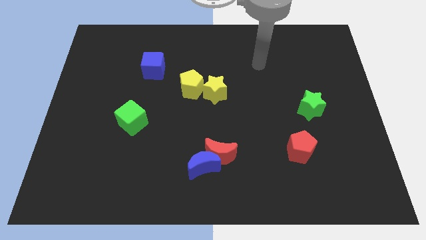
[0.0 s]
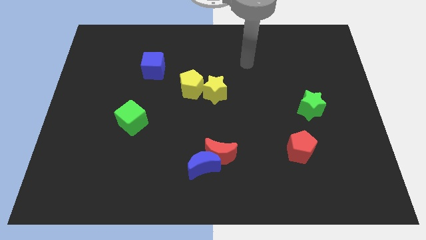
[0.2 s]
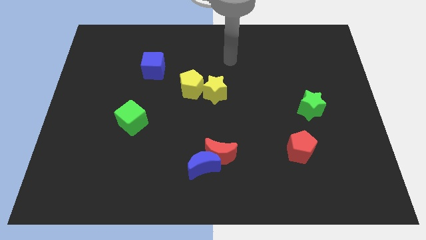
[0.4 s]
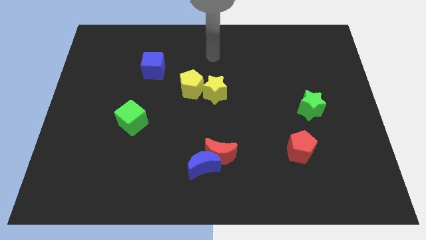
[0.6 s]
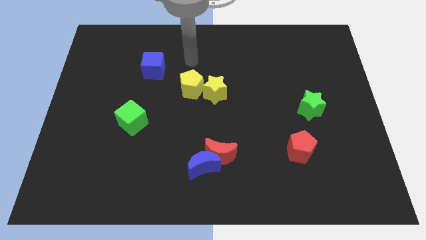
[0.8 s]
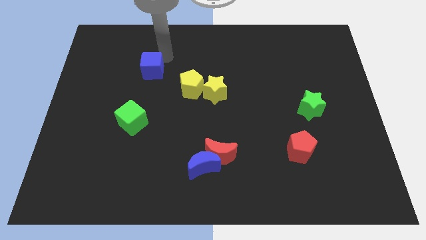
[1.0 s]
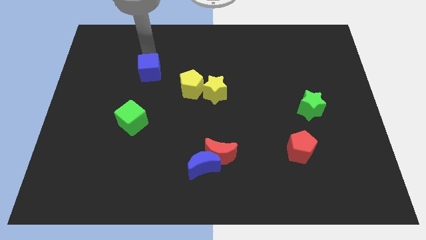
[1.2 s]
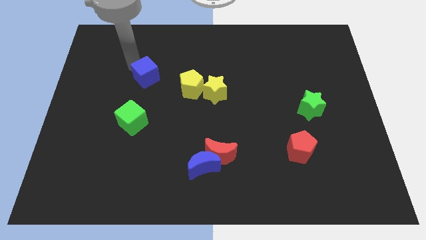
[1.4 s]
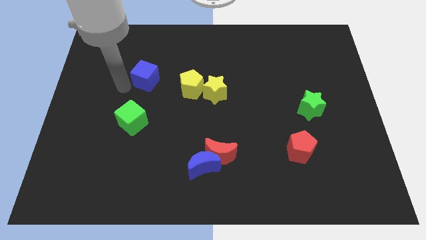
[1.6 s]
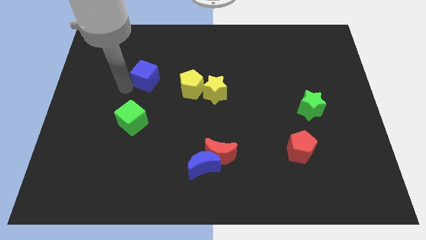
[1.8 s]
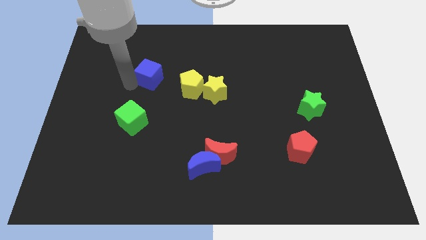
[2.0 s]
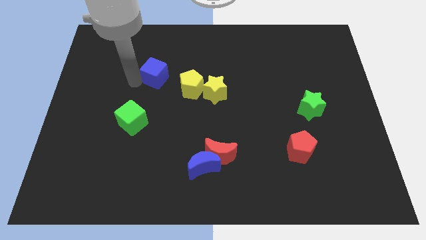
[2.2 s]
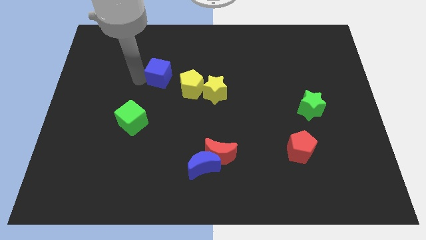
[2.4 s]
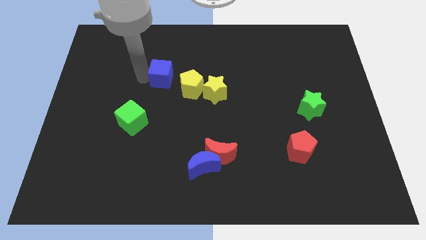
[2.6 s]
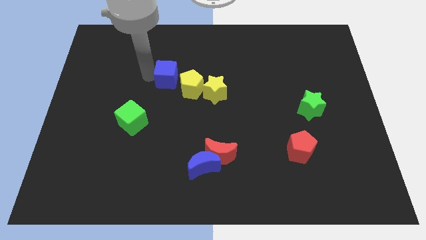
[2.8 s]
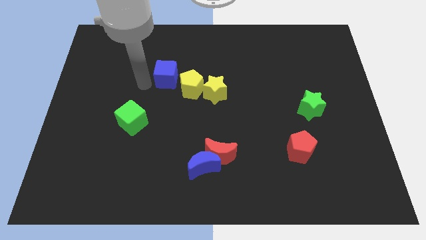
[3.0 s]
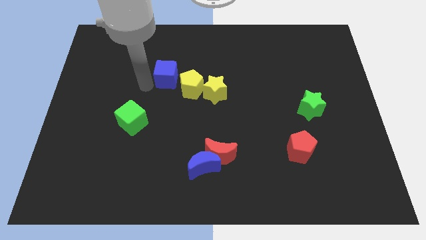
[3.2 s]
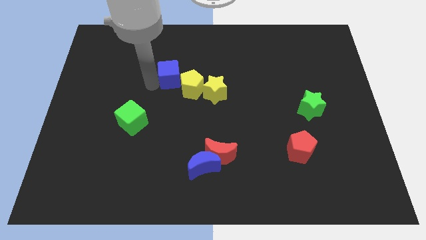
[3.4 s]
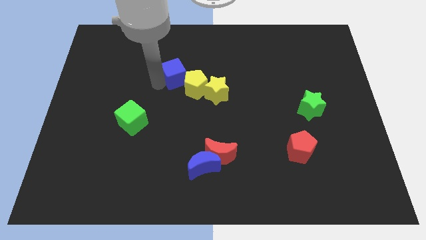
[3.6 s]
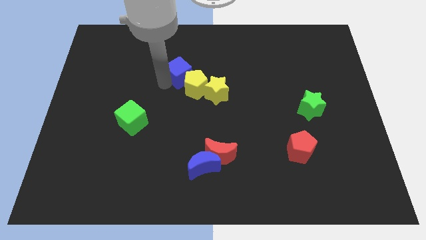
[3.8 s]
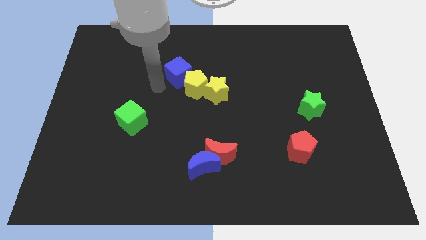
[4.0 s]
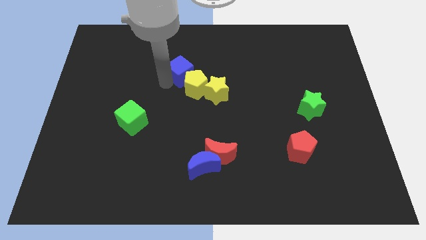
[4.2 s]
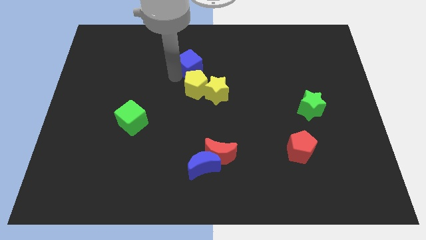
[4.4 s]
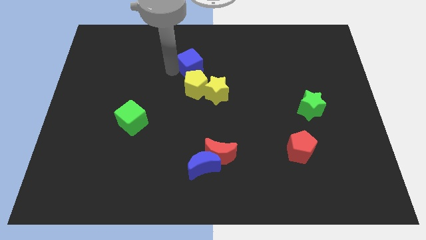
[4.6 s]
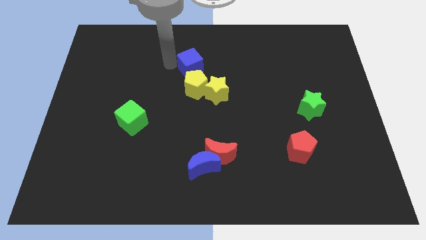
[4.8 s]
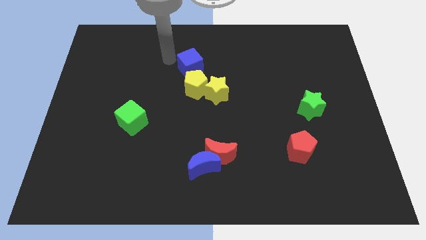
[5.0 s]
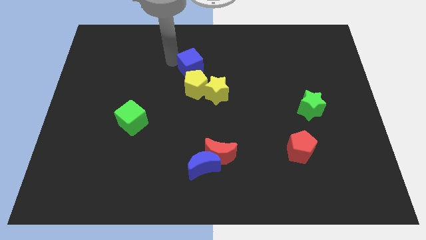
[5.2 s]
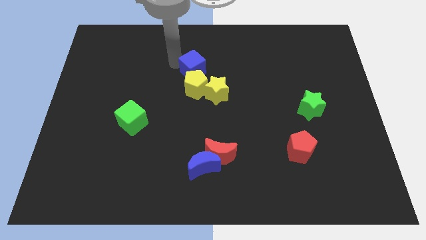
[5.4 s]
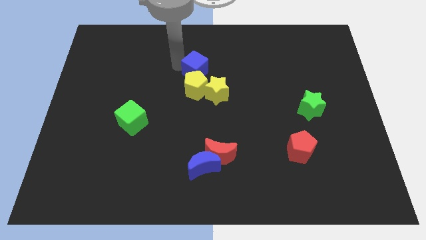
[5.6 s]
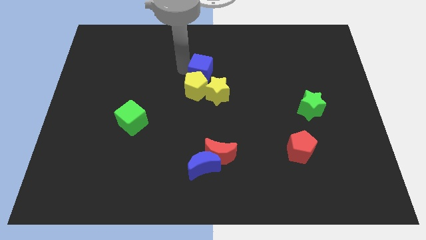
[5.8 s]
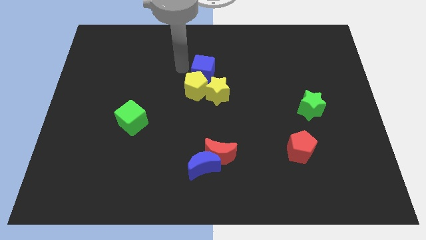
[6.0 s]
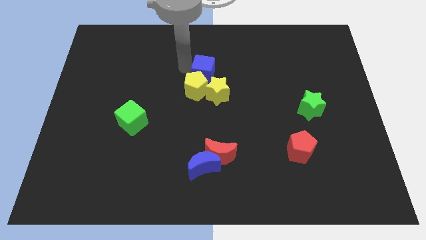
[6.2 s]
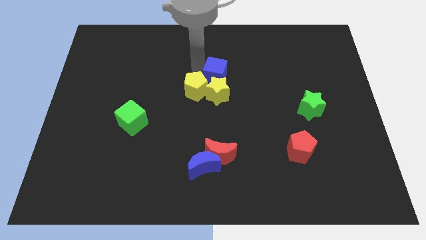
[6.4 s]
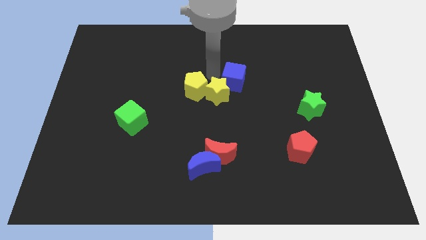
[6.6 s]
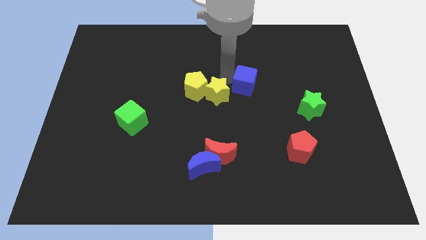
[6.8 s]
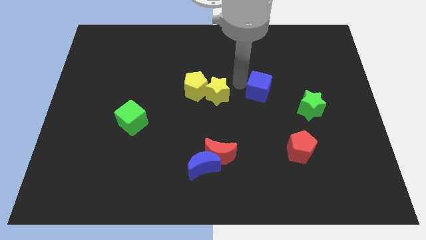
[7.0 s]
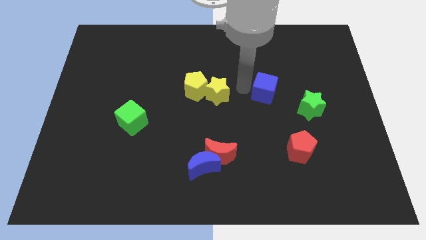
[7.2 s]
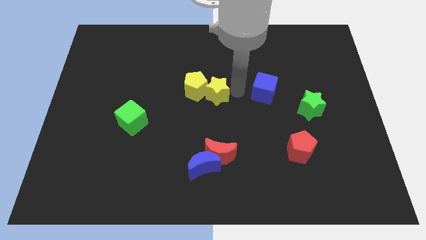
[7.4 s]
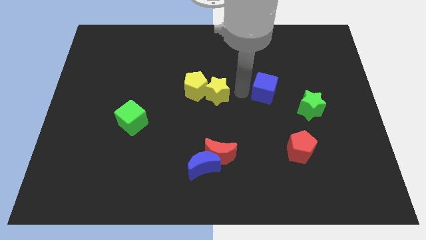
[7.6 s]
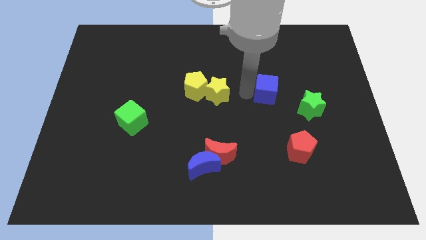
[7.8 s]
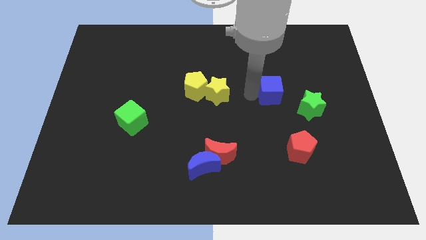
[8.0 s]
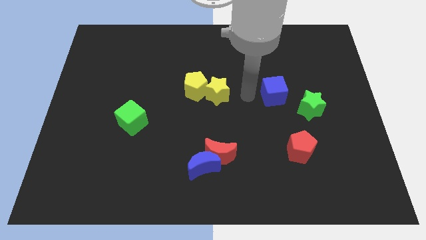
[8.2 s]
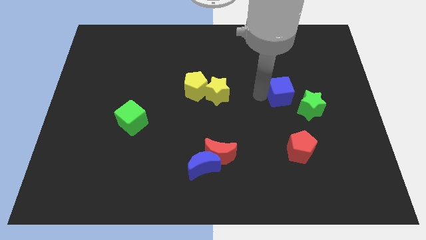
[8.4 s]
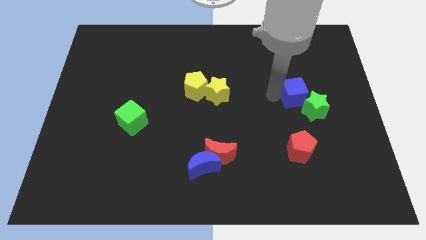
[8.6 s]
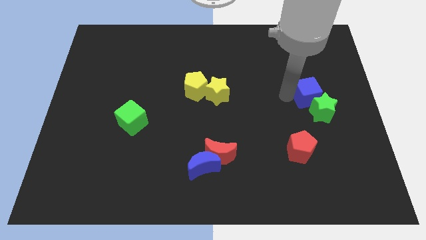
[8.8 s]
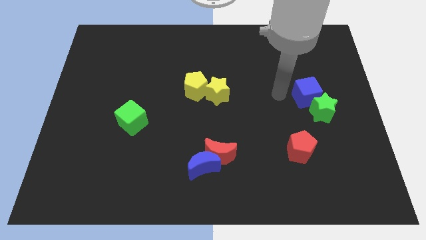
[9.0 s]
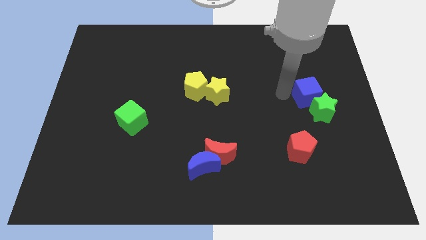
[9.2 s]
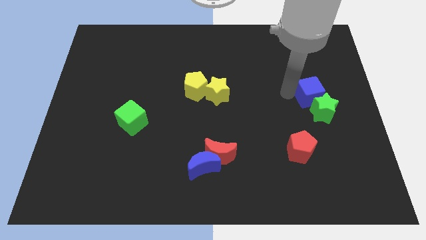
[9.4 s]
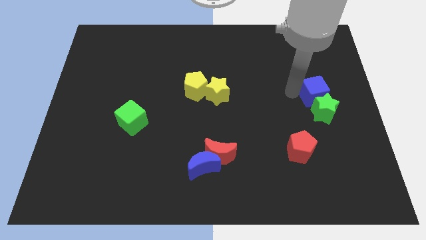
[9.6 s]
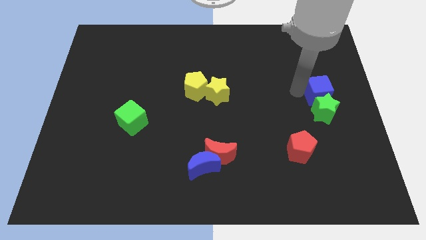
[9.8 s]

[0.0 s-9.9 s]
move the blue cube to the right side

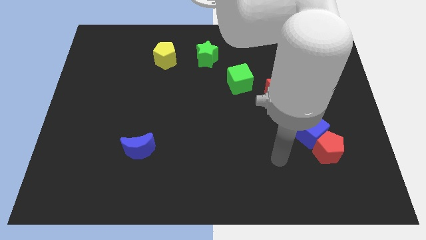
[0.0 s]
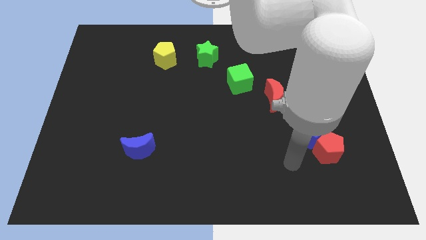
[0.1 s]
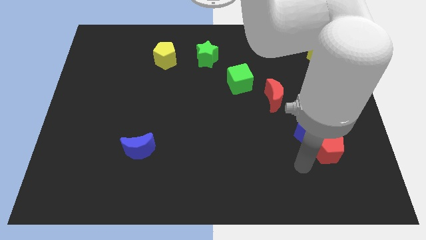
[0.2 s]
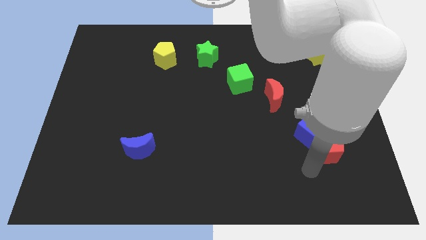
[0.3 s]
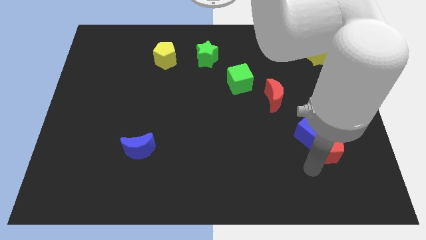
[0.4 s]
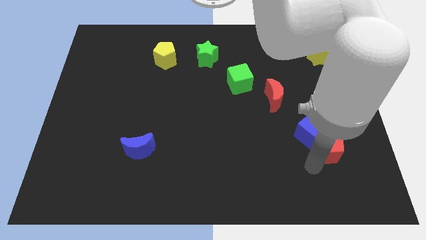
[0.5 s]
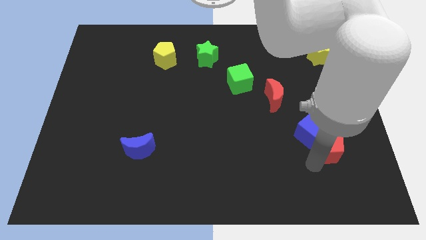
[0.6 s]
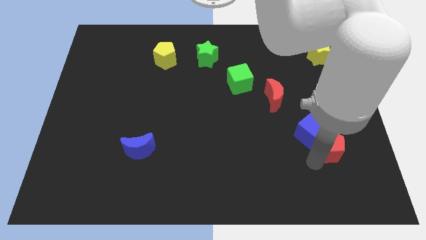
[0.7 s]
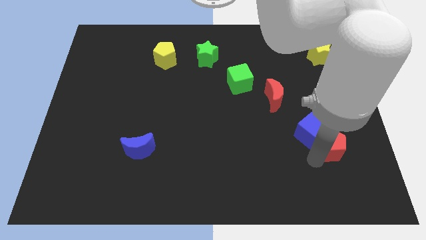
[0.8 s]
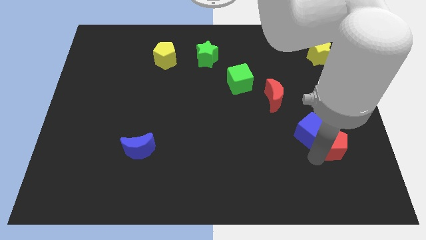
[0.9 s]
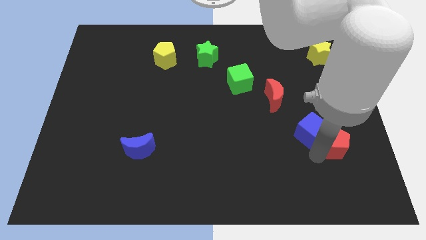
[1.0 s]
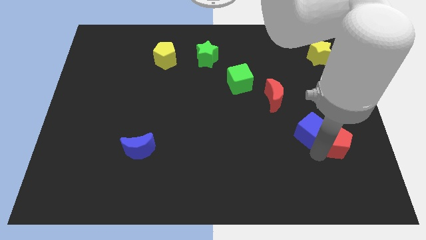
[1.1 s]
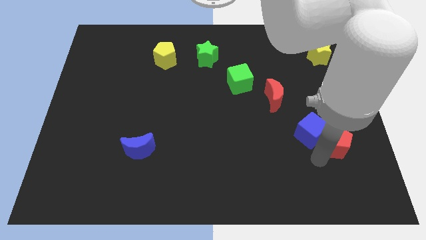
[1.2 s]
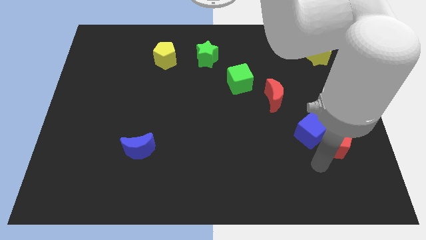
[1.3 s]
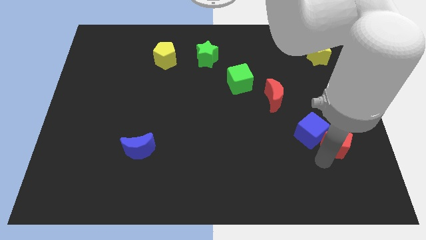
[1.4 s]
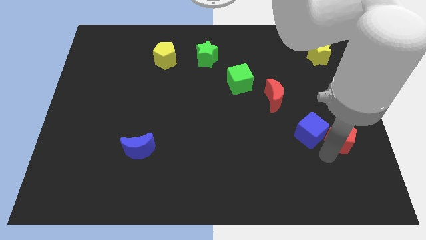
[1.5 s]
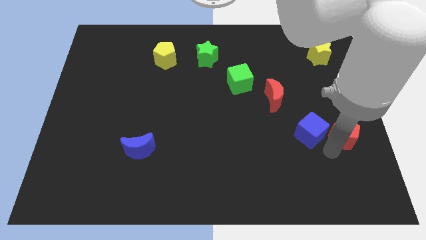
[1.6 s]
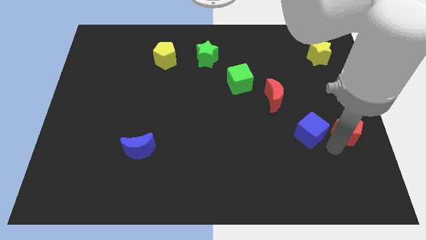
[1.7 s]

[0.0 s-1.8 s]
slide the red pentagon to the right side
